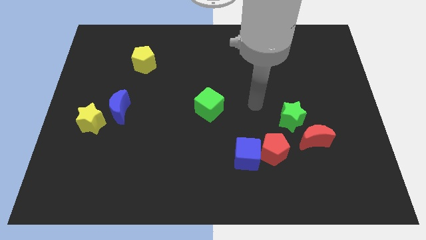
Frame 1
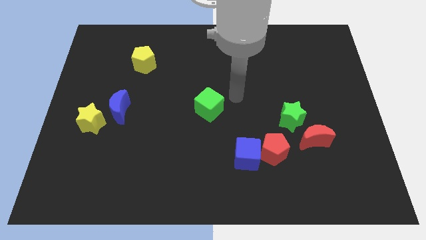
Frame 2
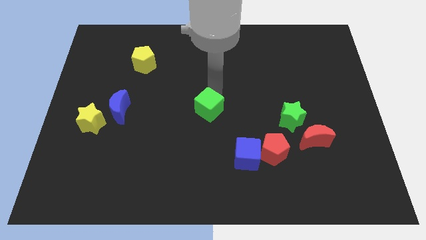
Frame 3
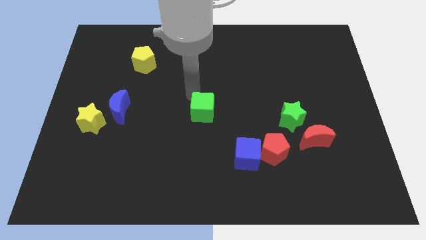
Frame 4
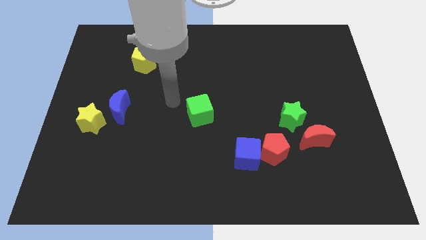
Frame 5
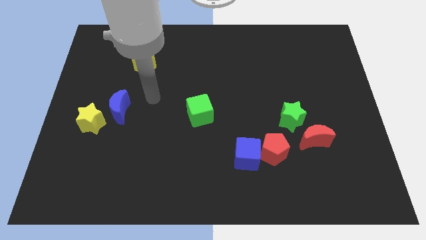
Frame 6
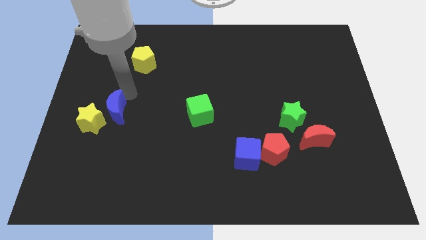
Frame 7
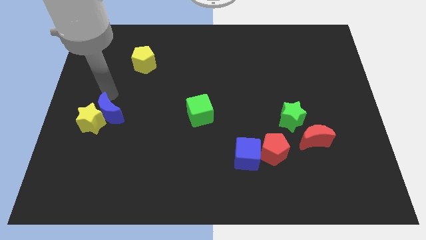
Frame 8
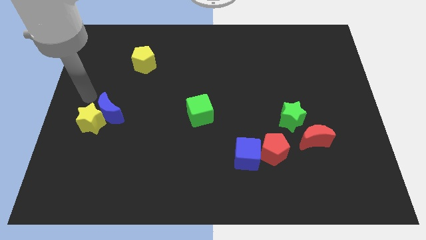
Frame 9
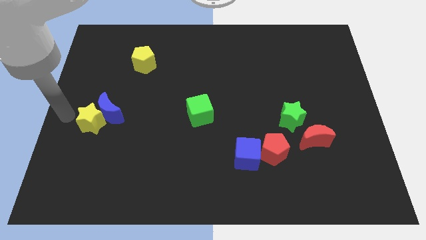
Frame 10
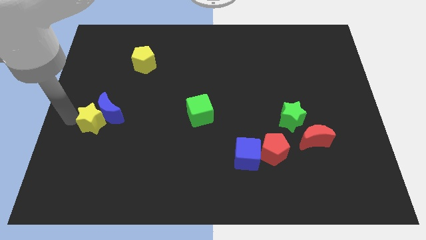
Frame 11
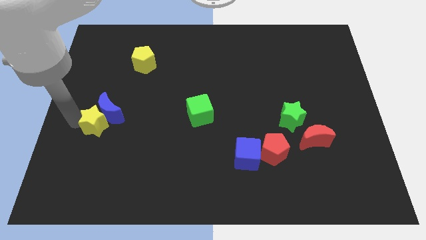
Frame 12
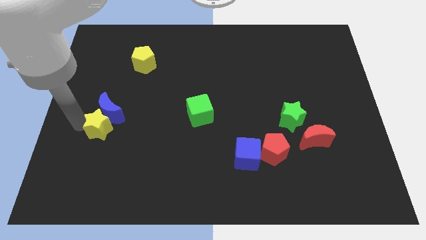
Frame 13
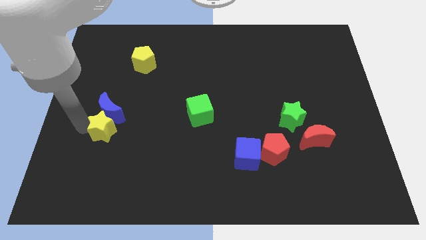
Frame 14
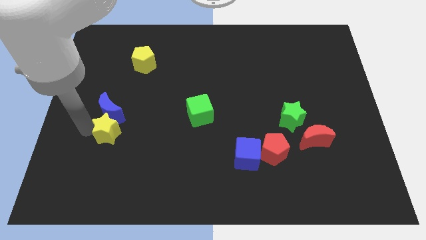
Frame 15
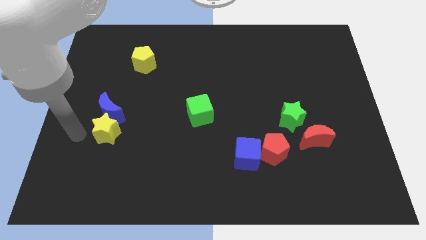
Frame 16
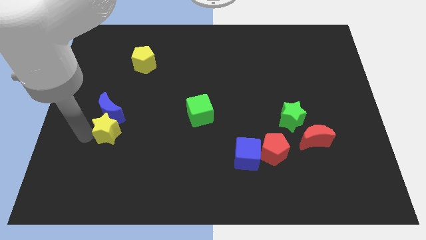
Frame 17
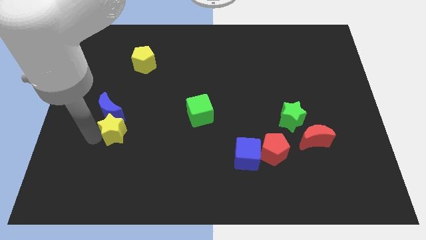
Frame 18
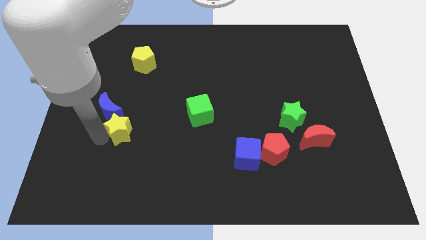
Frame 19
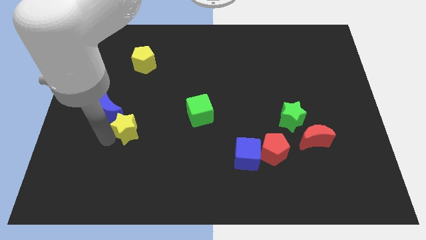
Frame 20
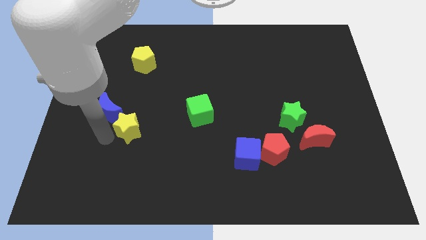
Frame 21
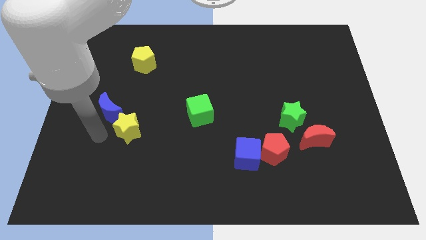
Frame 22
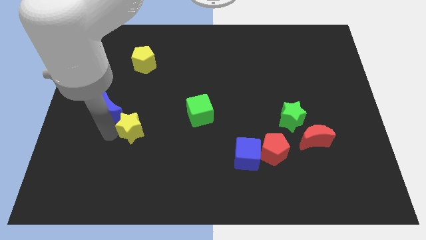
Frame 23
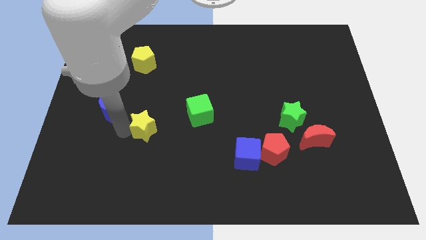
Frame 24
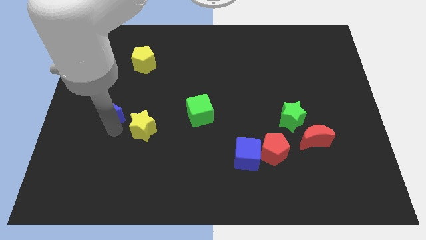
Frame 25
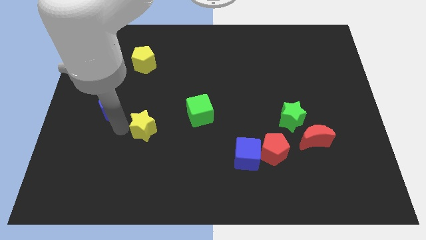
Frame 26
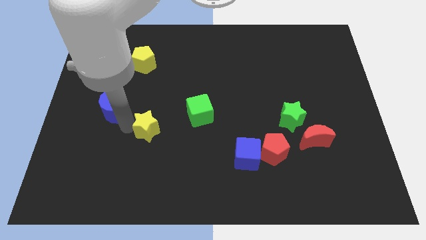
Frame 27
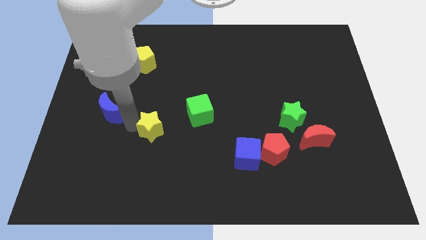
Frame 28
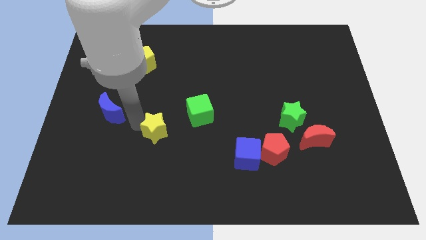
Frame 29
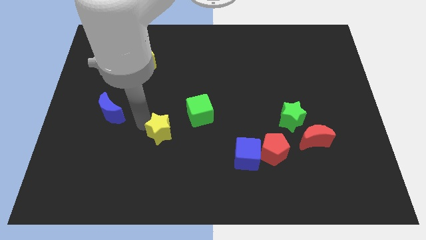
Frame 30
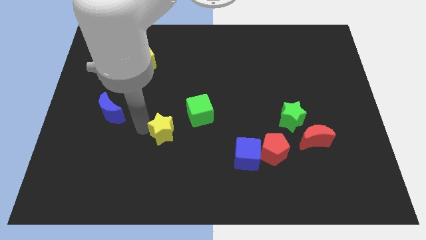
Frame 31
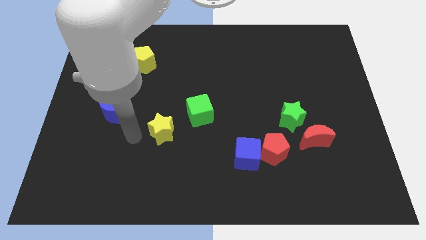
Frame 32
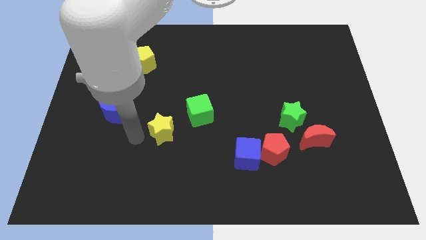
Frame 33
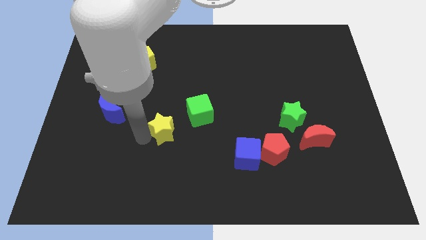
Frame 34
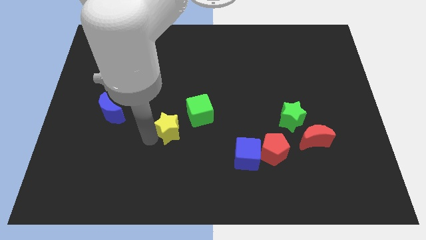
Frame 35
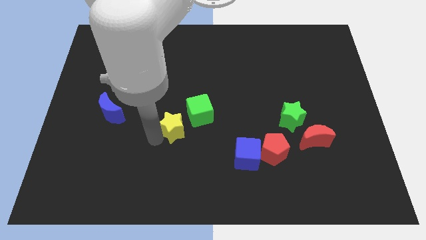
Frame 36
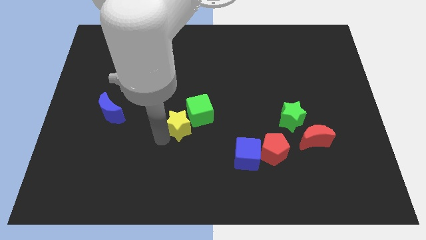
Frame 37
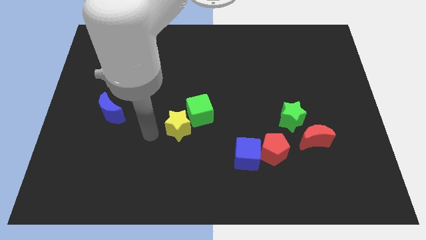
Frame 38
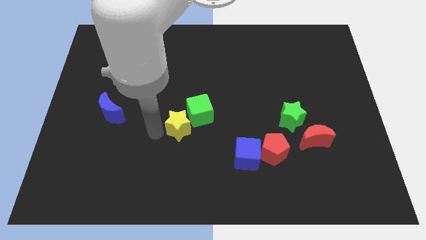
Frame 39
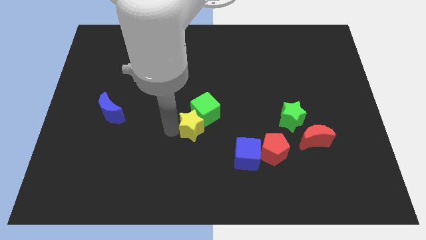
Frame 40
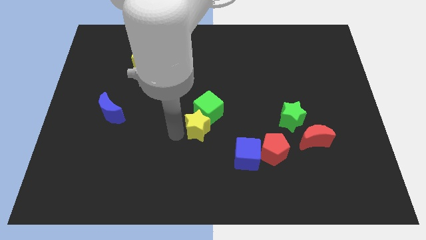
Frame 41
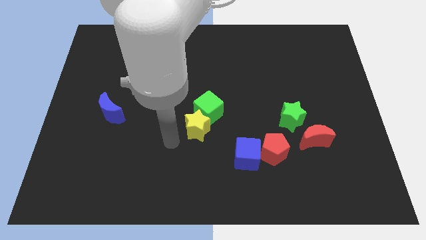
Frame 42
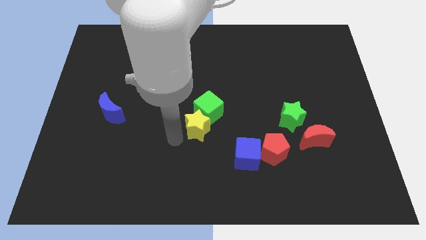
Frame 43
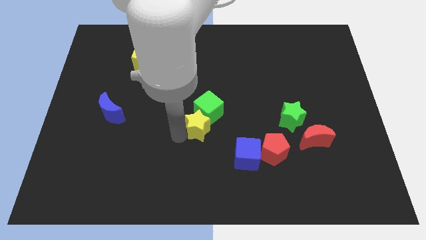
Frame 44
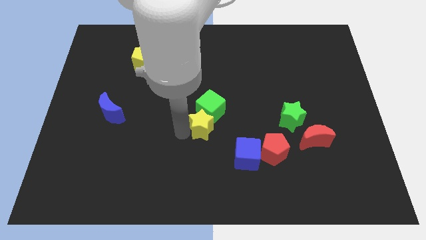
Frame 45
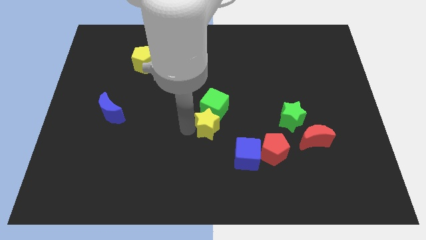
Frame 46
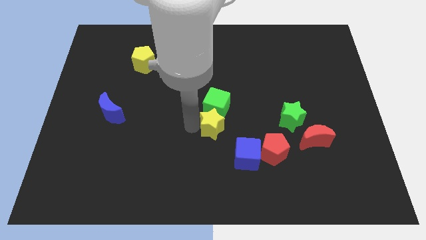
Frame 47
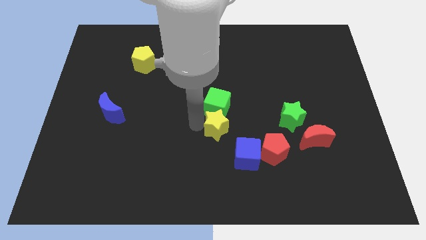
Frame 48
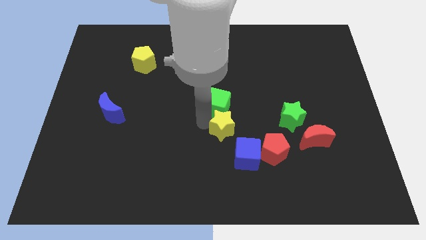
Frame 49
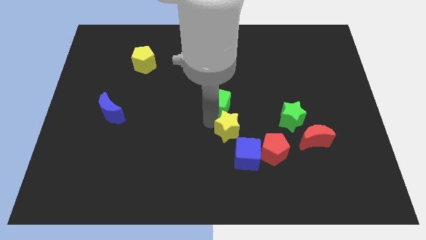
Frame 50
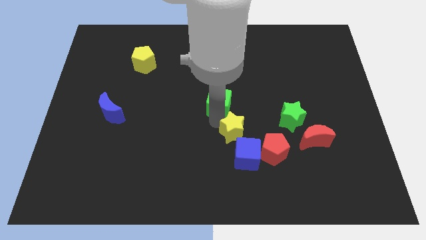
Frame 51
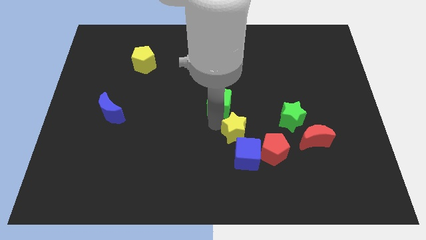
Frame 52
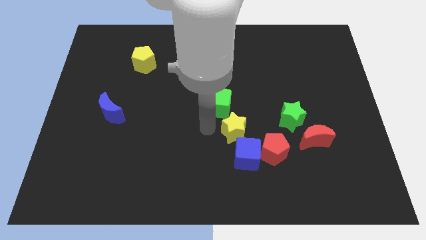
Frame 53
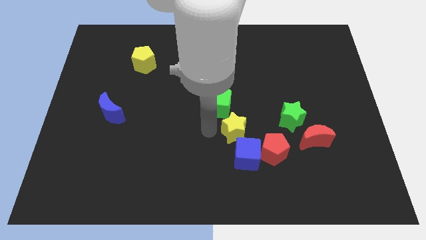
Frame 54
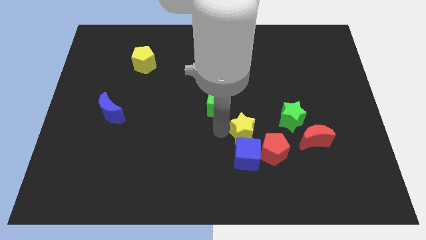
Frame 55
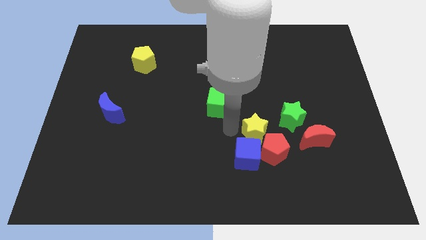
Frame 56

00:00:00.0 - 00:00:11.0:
push the yellow star towards the red pentagon

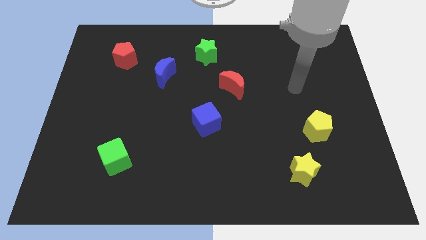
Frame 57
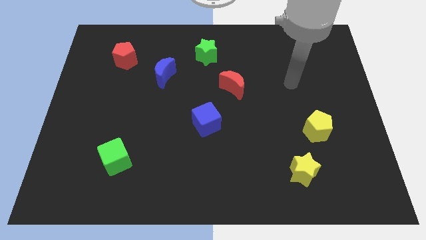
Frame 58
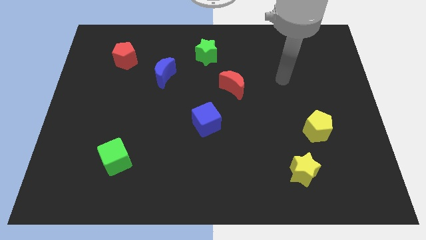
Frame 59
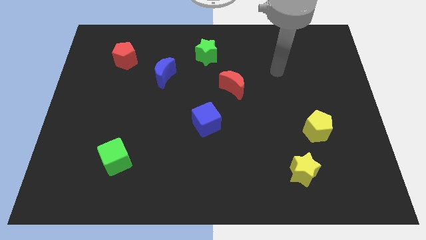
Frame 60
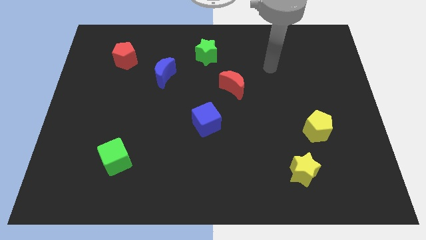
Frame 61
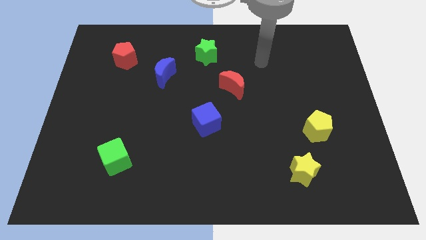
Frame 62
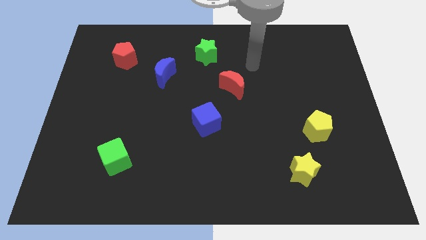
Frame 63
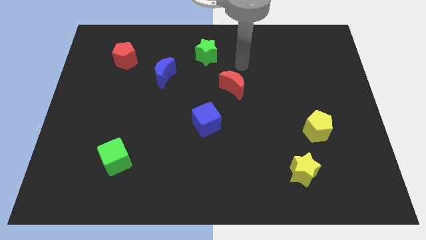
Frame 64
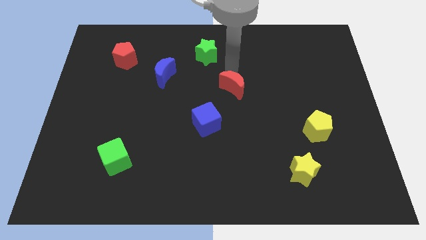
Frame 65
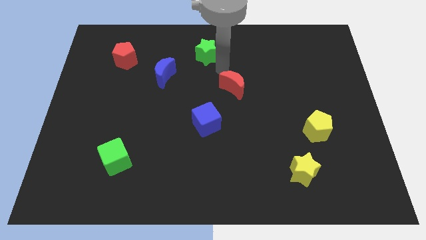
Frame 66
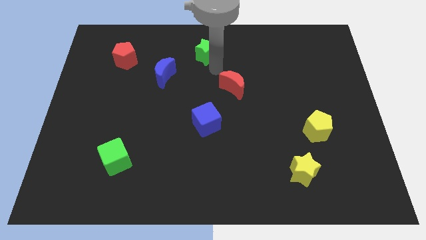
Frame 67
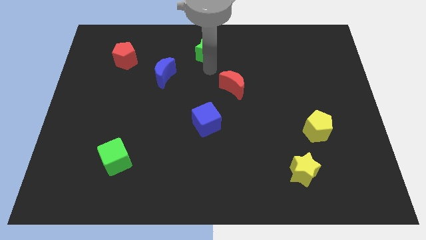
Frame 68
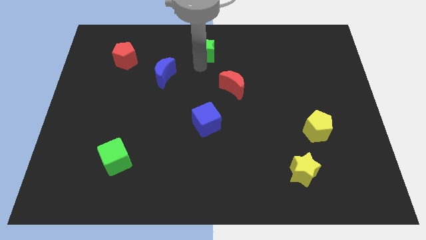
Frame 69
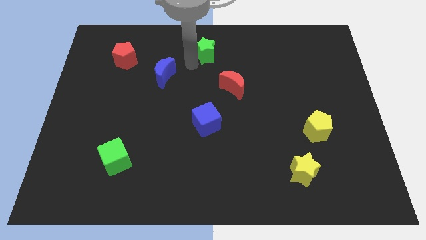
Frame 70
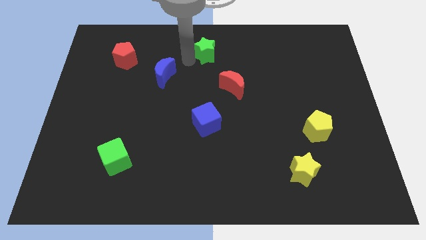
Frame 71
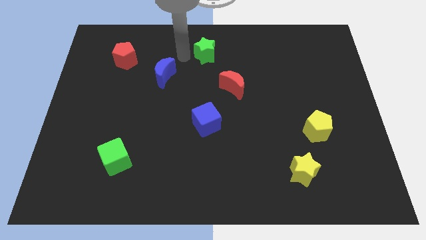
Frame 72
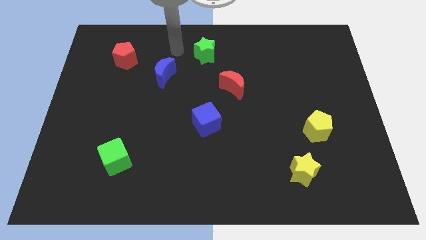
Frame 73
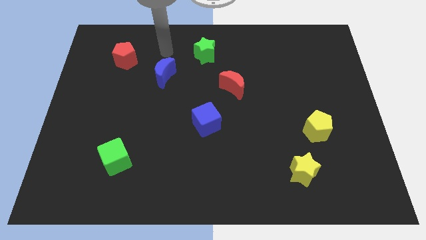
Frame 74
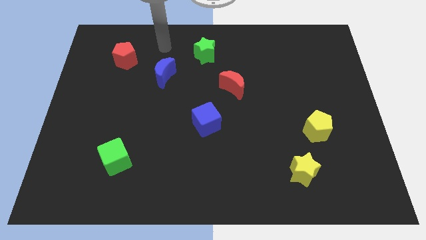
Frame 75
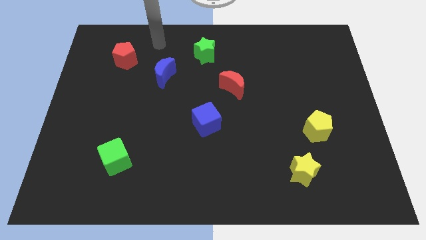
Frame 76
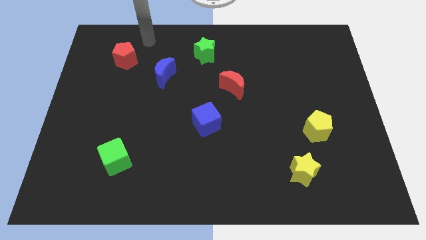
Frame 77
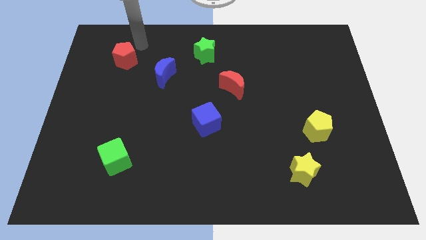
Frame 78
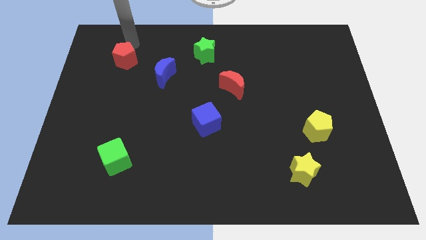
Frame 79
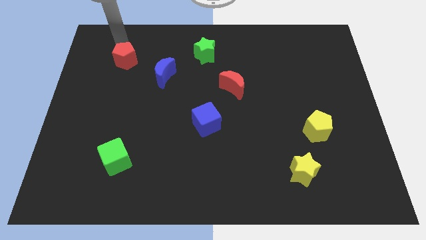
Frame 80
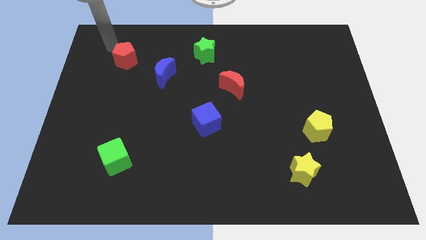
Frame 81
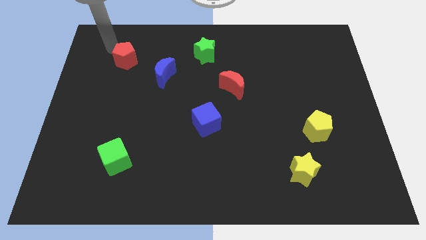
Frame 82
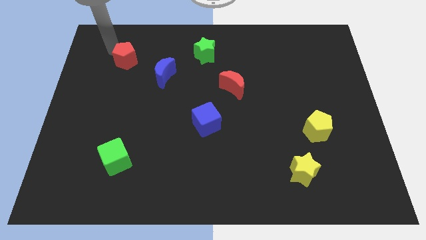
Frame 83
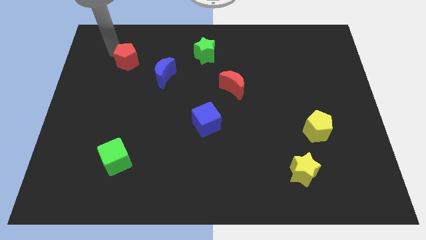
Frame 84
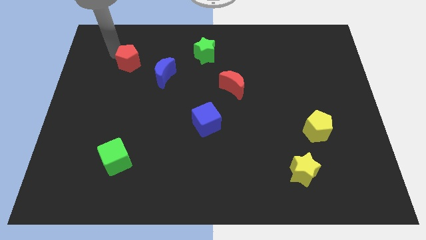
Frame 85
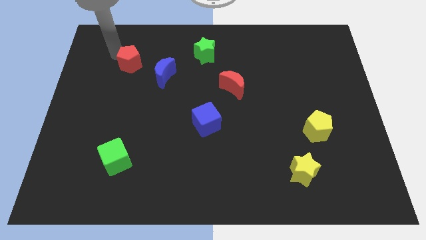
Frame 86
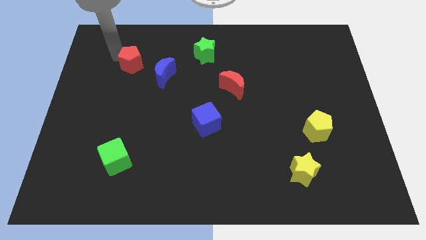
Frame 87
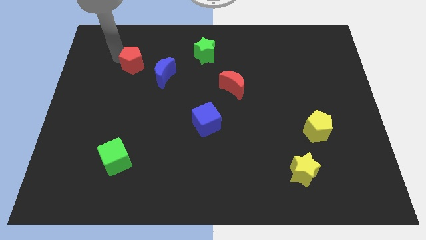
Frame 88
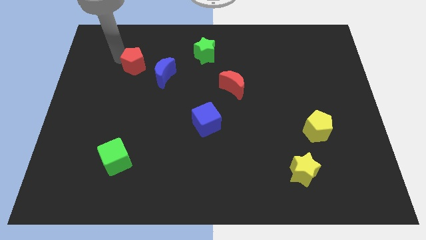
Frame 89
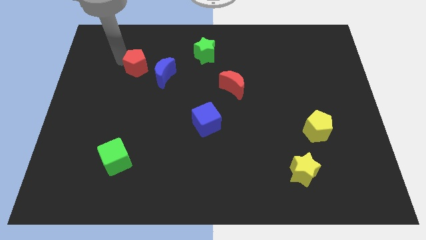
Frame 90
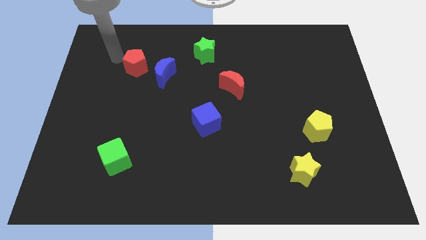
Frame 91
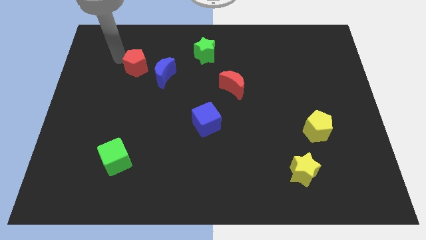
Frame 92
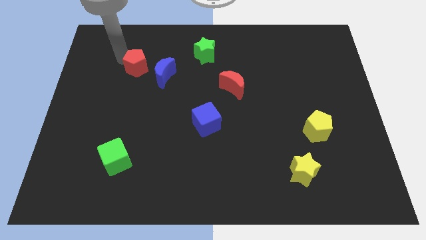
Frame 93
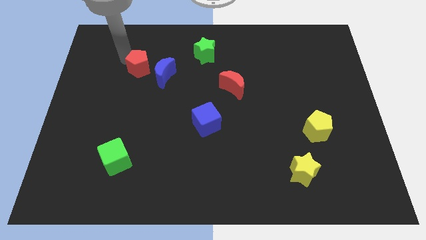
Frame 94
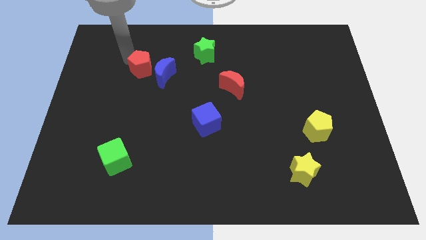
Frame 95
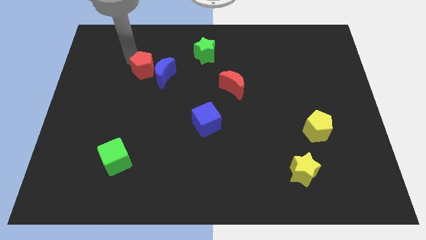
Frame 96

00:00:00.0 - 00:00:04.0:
slide the red pentagon close to the blue moon
